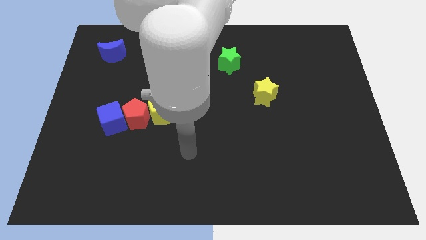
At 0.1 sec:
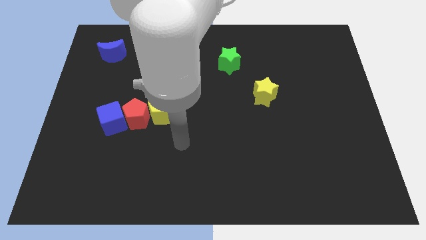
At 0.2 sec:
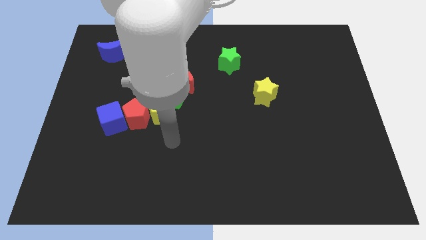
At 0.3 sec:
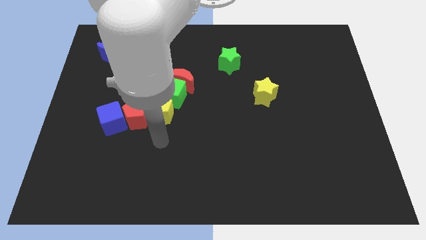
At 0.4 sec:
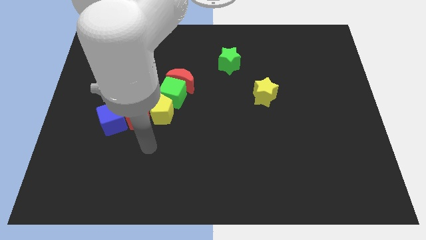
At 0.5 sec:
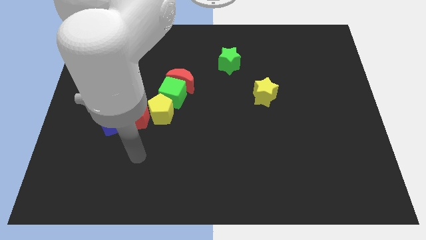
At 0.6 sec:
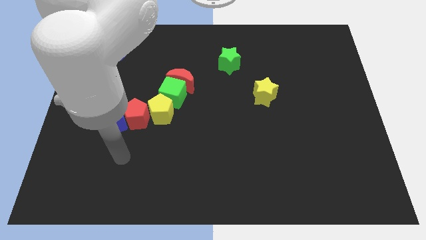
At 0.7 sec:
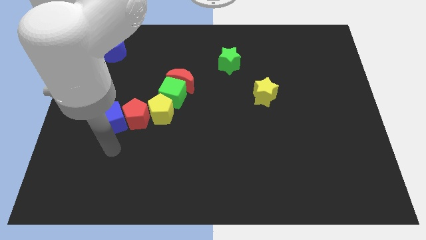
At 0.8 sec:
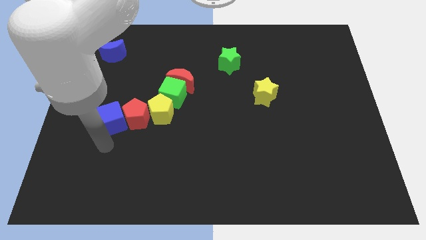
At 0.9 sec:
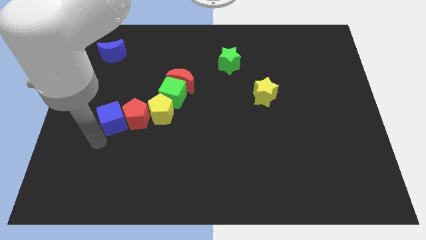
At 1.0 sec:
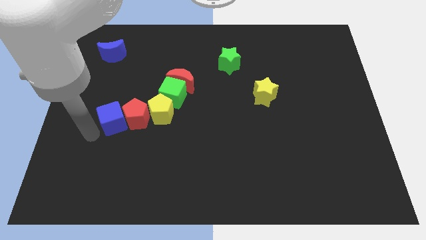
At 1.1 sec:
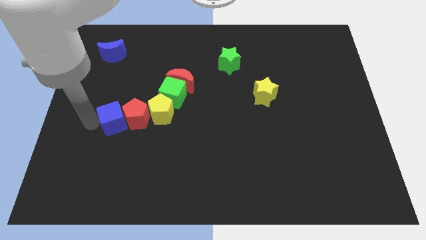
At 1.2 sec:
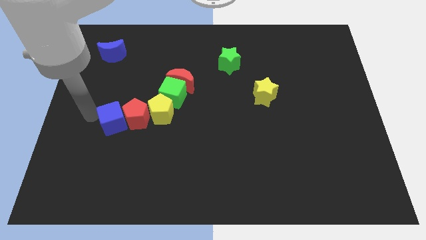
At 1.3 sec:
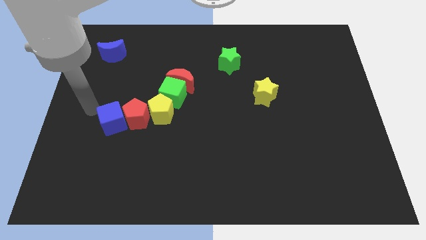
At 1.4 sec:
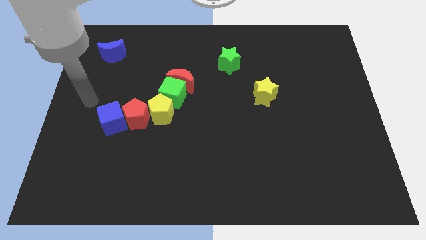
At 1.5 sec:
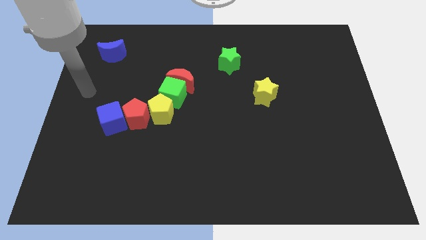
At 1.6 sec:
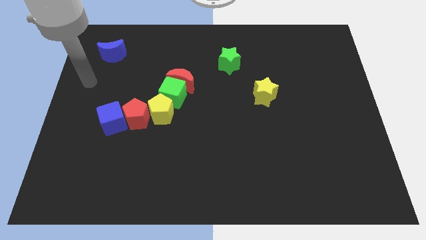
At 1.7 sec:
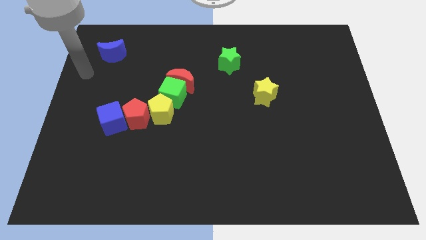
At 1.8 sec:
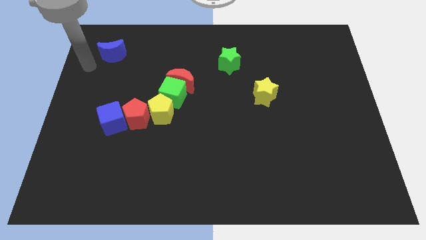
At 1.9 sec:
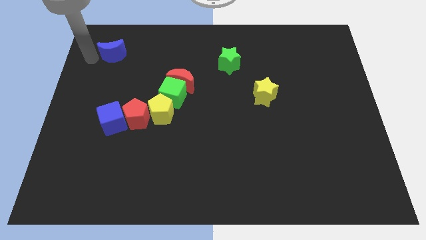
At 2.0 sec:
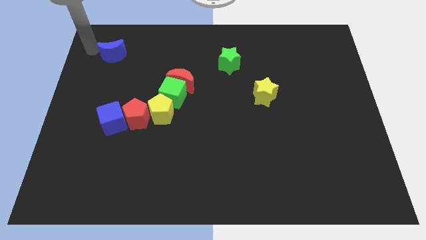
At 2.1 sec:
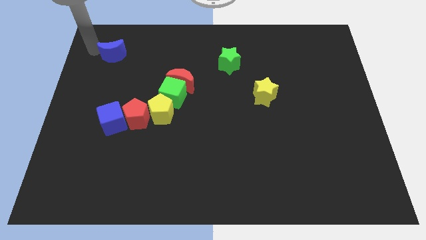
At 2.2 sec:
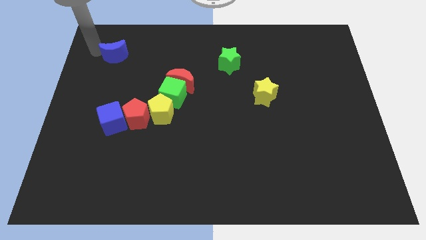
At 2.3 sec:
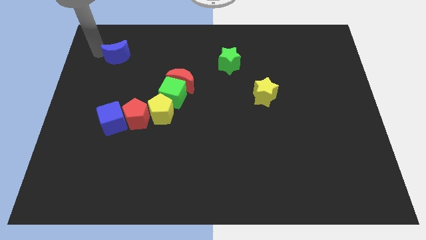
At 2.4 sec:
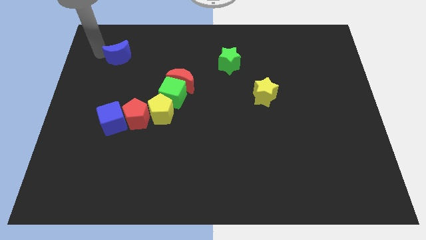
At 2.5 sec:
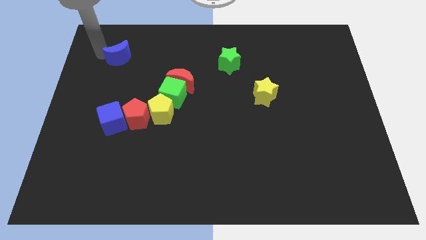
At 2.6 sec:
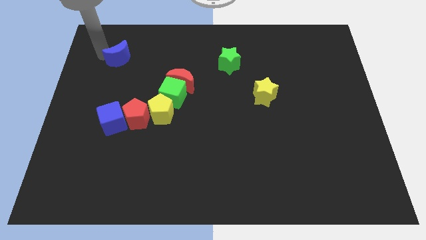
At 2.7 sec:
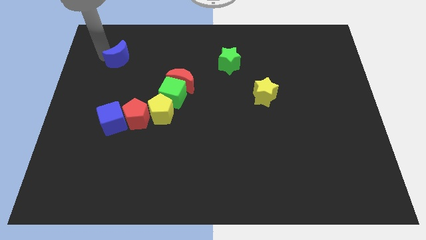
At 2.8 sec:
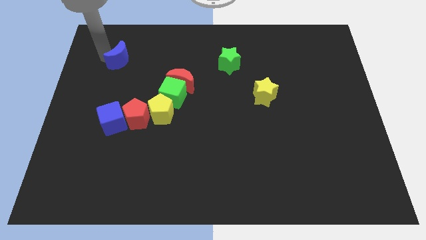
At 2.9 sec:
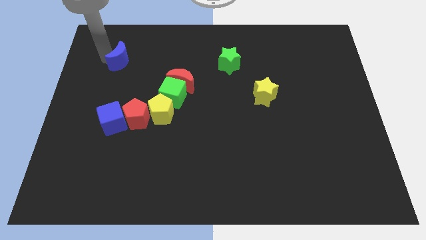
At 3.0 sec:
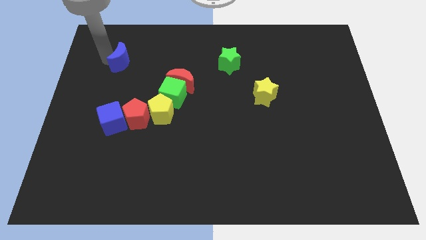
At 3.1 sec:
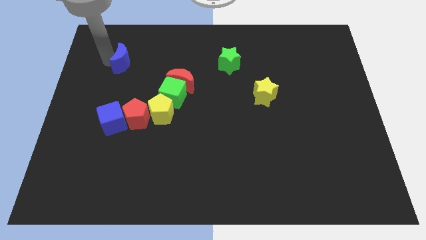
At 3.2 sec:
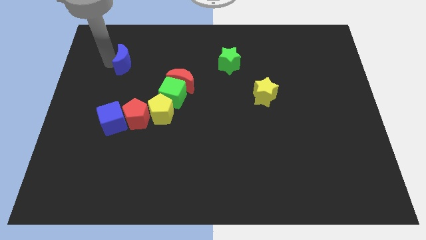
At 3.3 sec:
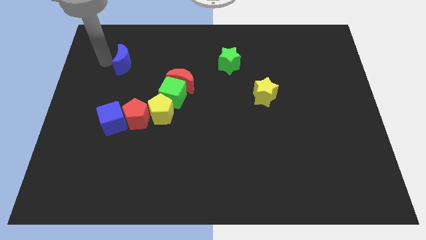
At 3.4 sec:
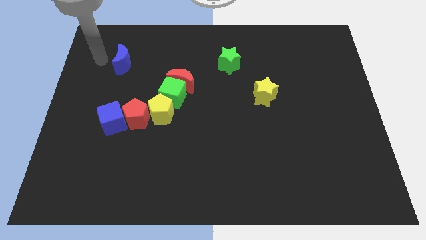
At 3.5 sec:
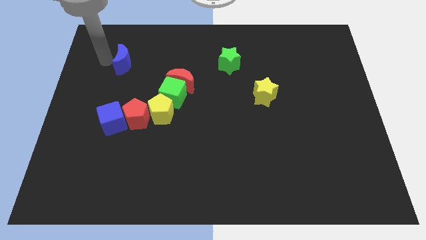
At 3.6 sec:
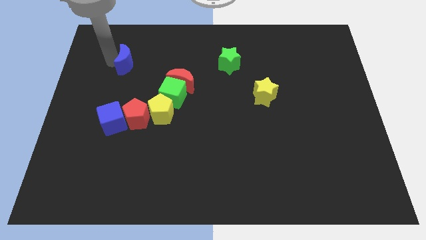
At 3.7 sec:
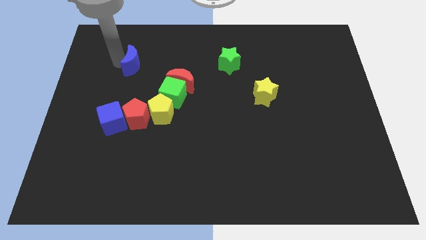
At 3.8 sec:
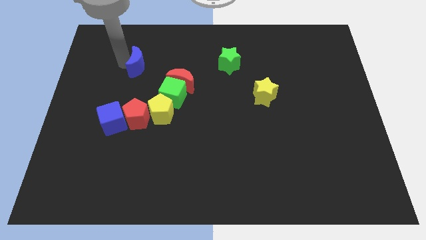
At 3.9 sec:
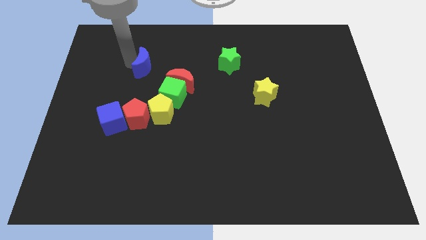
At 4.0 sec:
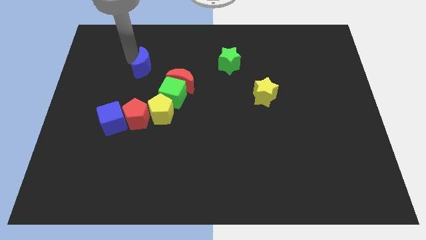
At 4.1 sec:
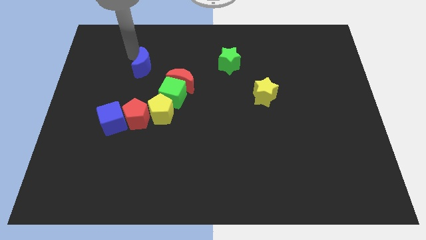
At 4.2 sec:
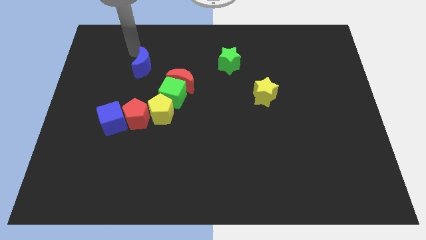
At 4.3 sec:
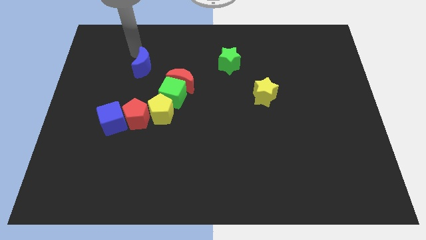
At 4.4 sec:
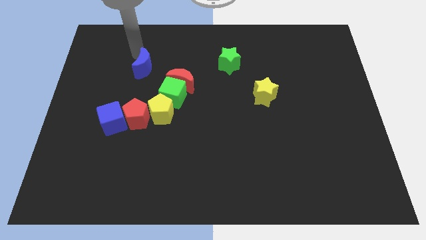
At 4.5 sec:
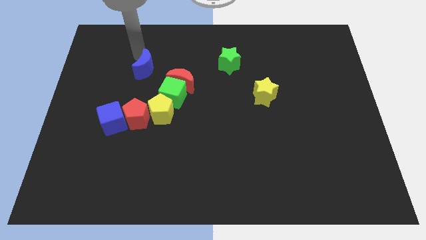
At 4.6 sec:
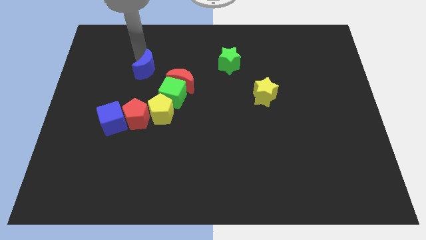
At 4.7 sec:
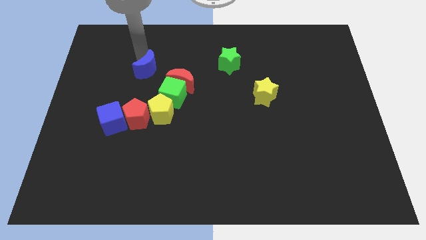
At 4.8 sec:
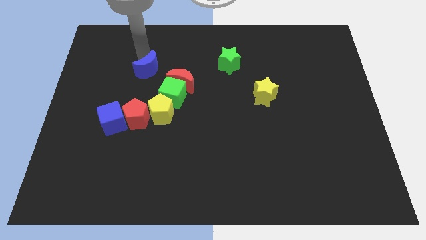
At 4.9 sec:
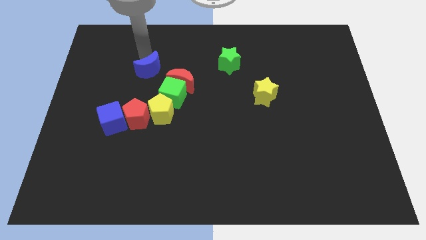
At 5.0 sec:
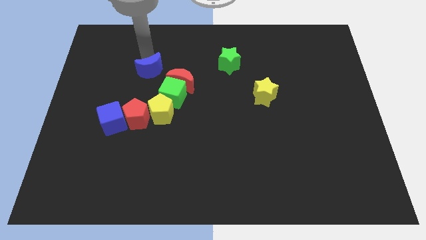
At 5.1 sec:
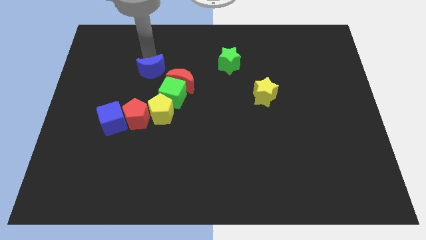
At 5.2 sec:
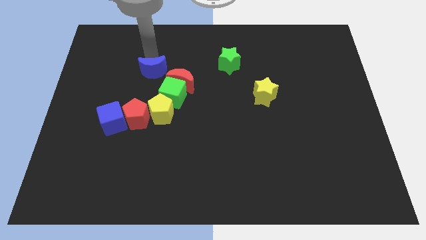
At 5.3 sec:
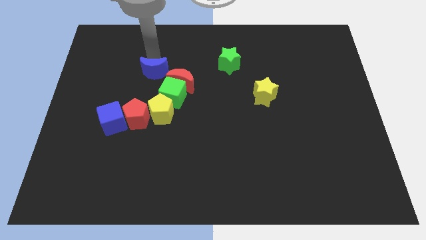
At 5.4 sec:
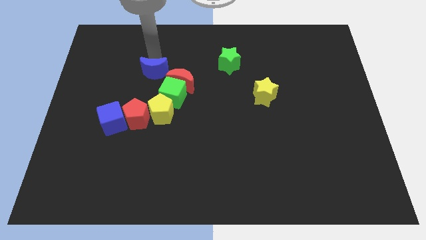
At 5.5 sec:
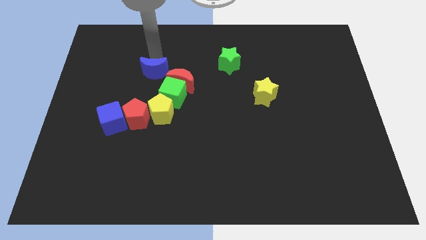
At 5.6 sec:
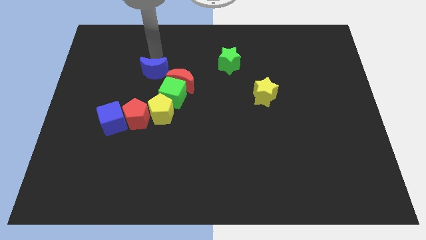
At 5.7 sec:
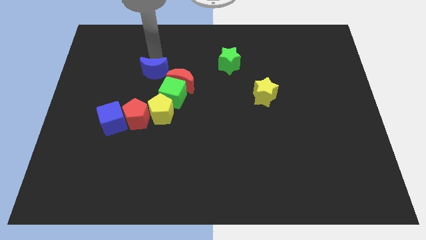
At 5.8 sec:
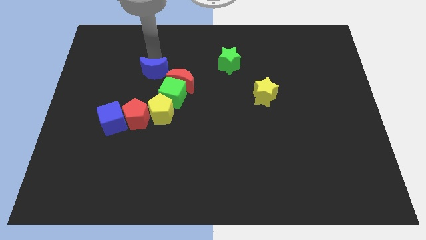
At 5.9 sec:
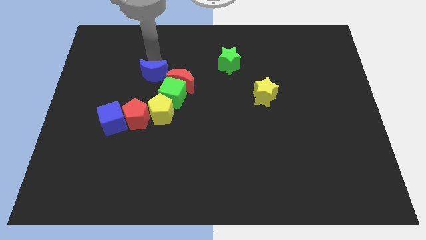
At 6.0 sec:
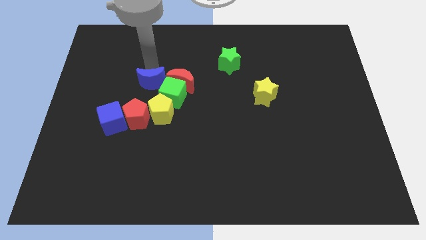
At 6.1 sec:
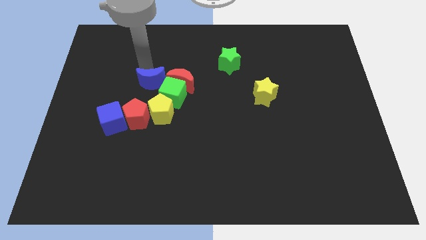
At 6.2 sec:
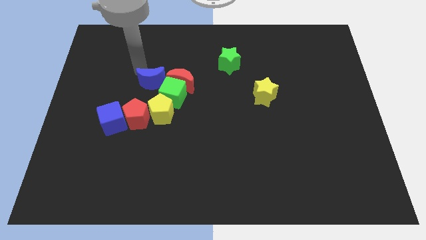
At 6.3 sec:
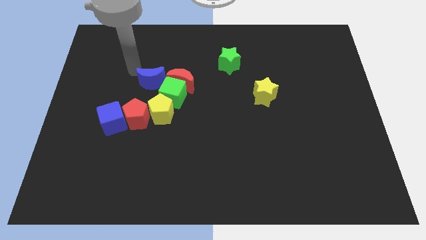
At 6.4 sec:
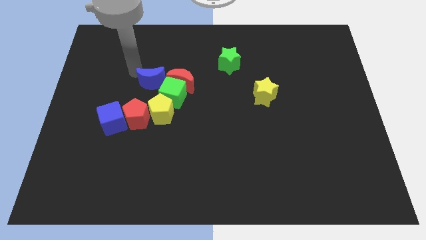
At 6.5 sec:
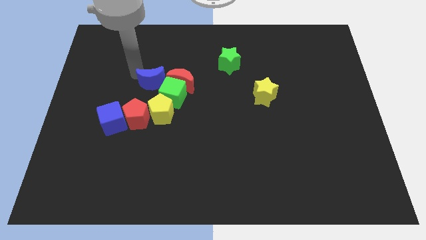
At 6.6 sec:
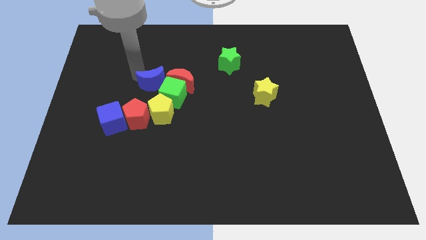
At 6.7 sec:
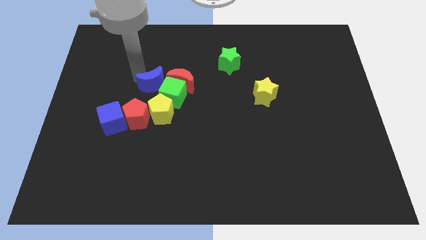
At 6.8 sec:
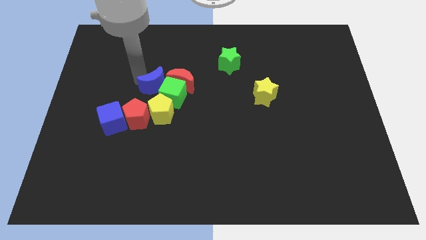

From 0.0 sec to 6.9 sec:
slide the blue moon close to the green cube
